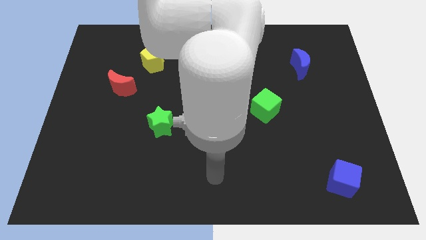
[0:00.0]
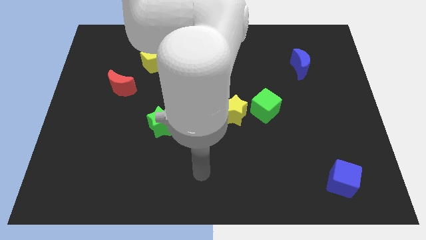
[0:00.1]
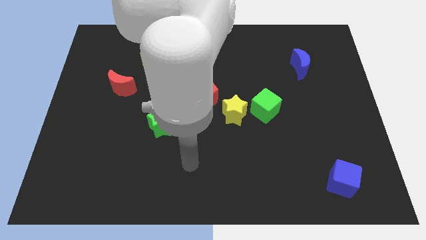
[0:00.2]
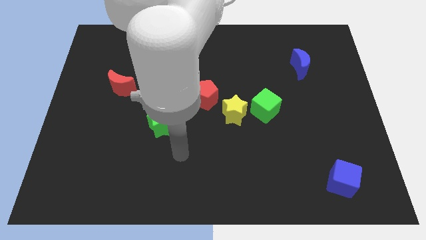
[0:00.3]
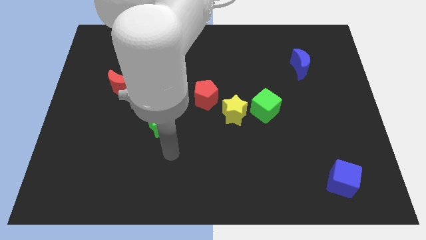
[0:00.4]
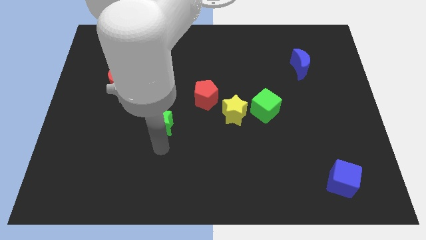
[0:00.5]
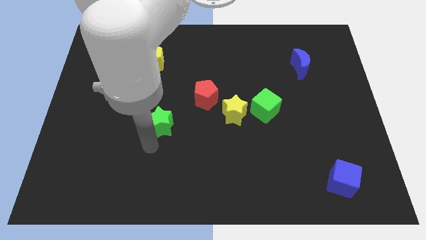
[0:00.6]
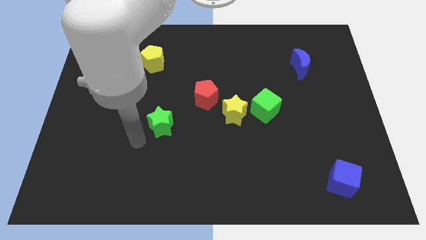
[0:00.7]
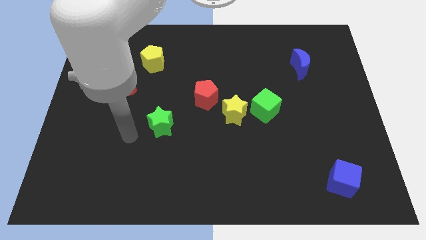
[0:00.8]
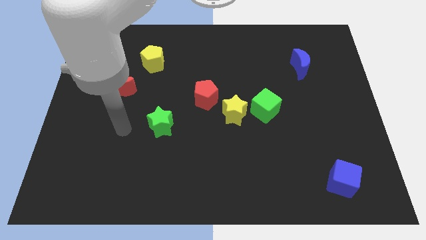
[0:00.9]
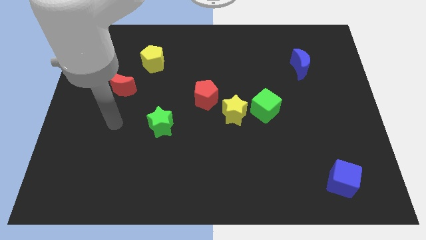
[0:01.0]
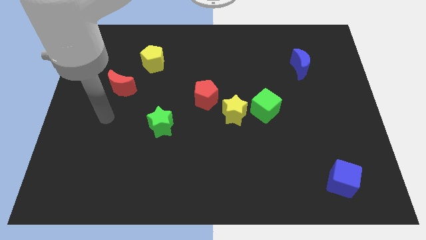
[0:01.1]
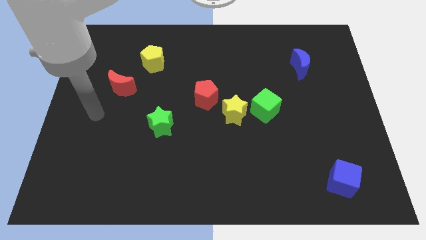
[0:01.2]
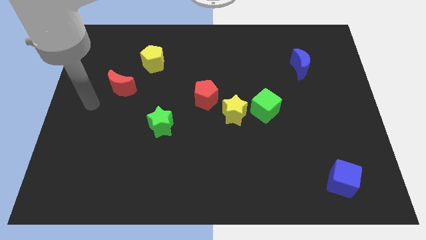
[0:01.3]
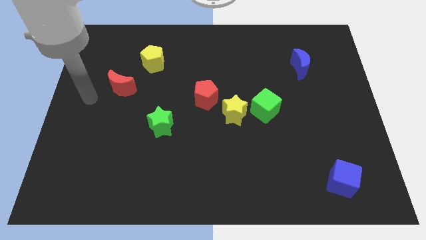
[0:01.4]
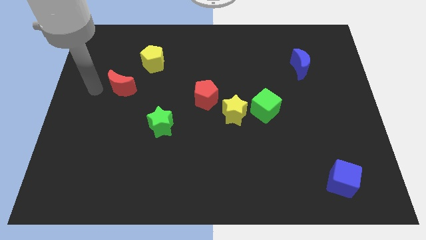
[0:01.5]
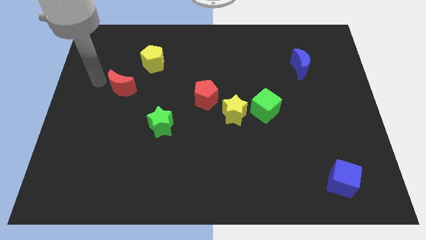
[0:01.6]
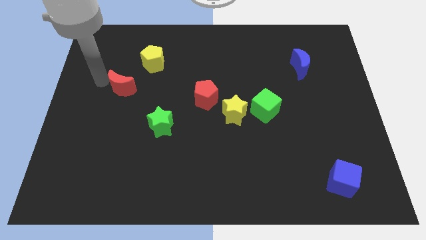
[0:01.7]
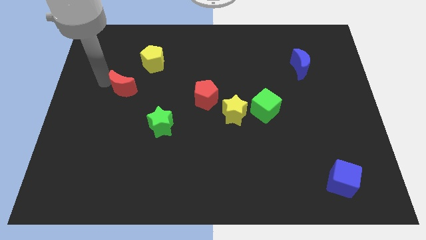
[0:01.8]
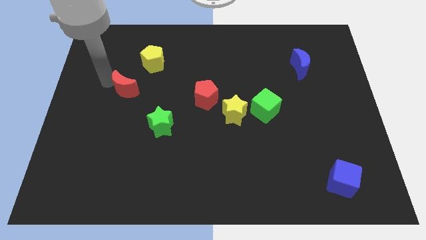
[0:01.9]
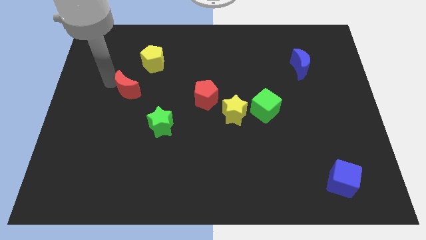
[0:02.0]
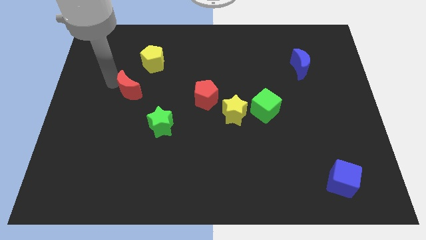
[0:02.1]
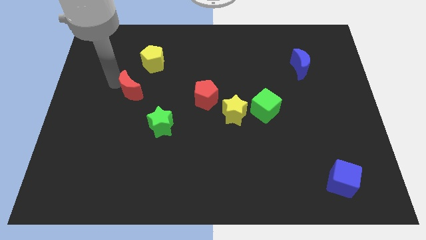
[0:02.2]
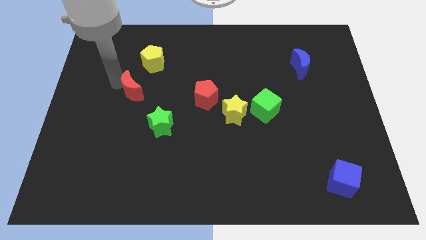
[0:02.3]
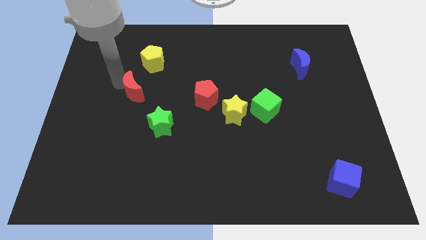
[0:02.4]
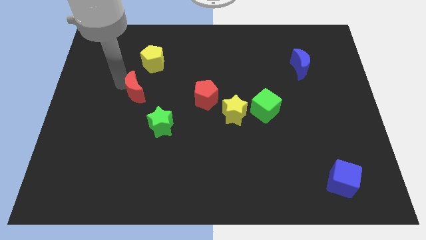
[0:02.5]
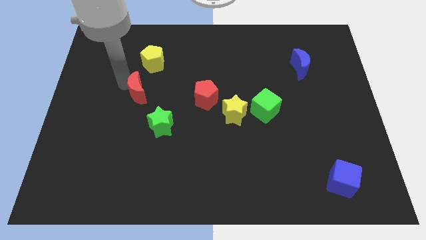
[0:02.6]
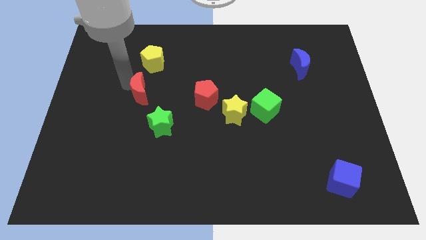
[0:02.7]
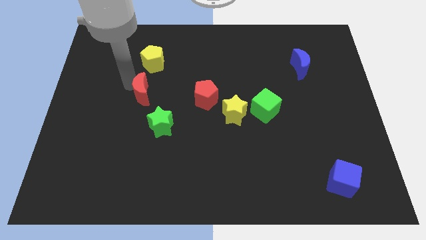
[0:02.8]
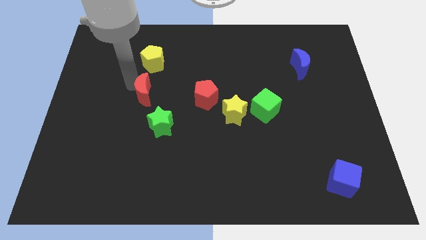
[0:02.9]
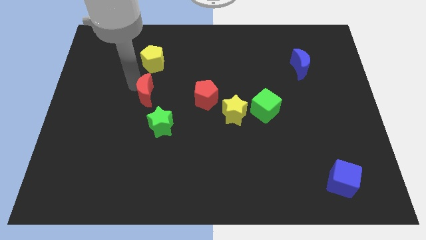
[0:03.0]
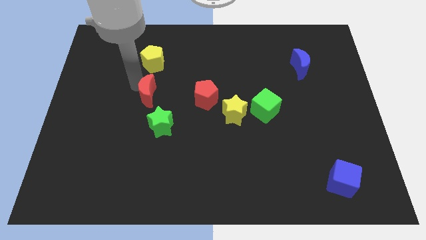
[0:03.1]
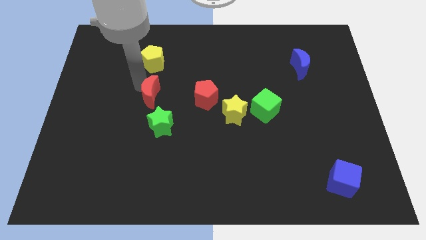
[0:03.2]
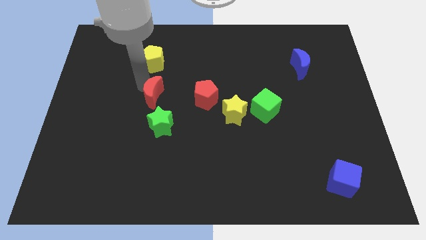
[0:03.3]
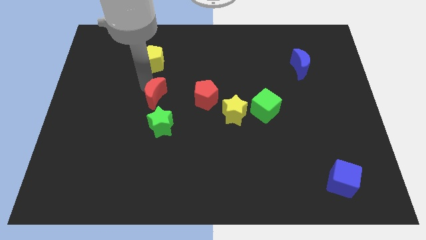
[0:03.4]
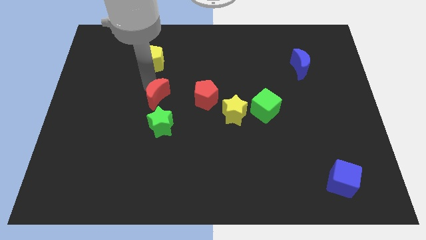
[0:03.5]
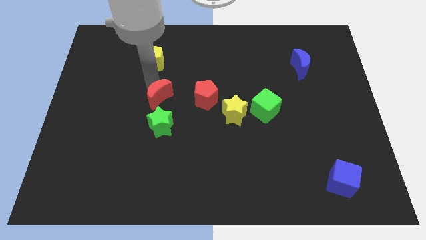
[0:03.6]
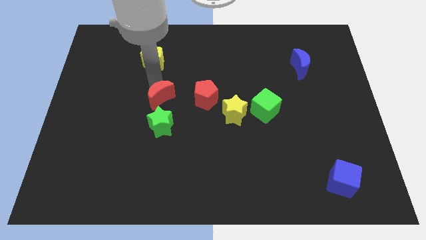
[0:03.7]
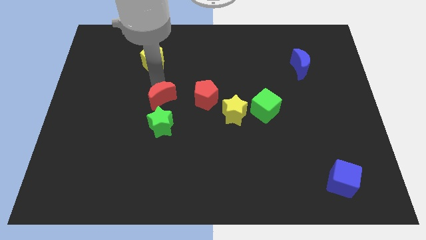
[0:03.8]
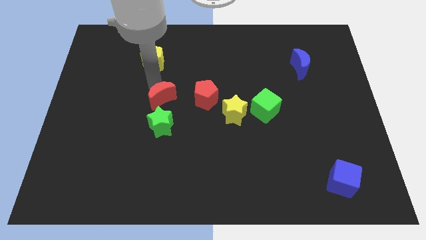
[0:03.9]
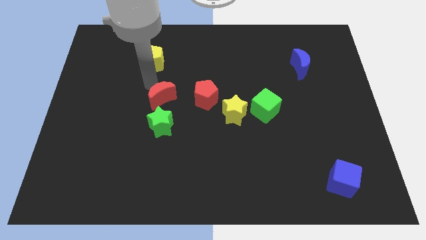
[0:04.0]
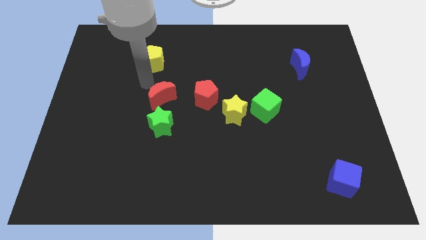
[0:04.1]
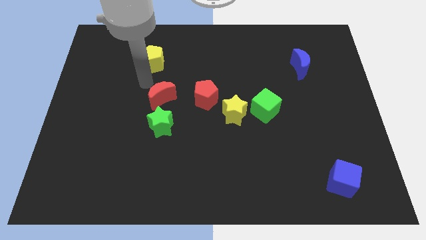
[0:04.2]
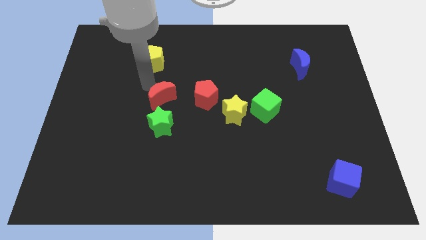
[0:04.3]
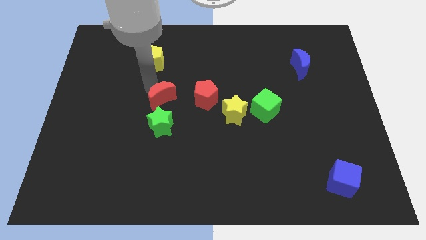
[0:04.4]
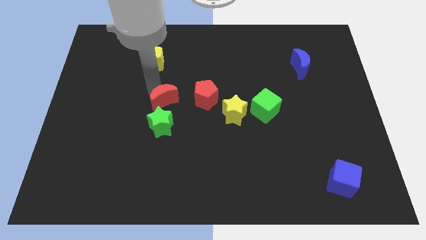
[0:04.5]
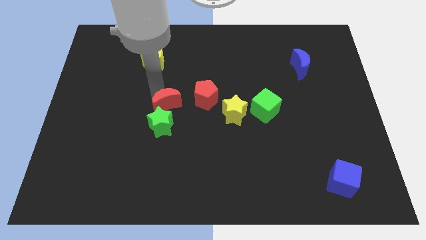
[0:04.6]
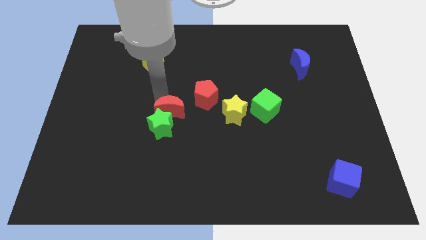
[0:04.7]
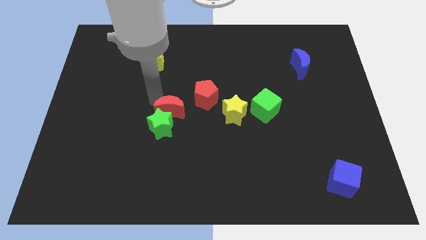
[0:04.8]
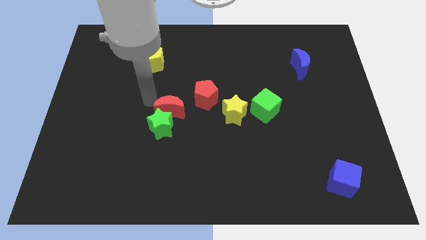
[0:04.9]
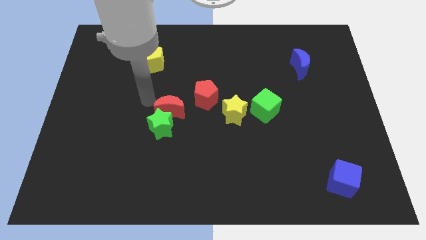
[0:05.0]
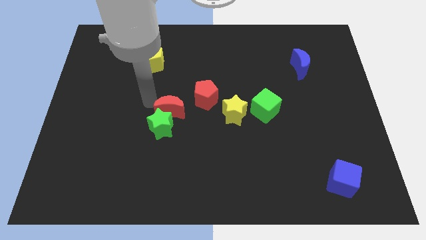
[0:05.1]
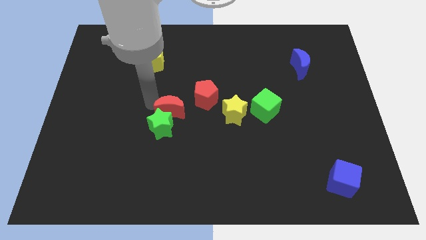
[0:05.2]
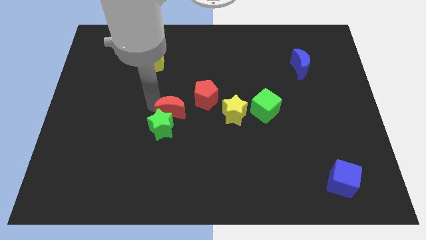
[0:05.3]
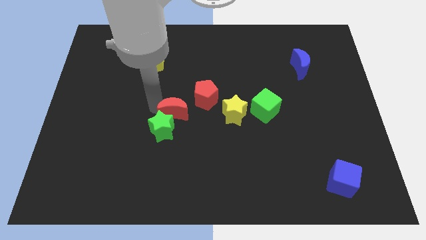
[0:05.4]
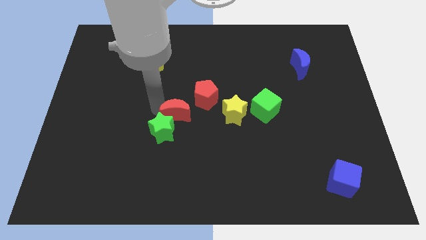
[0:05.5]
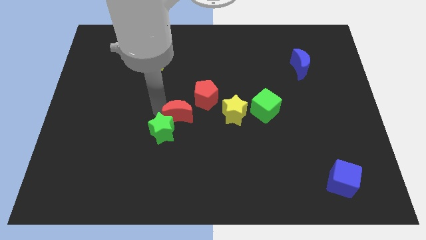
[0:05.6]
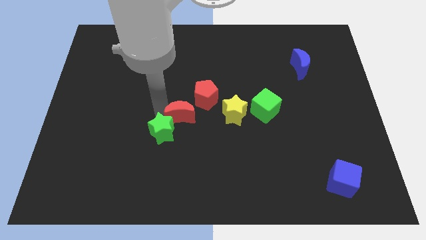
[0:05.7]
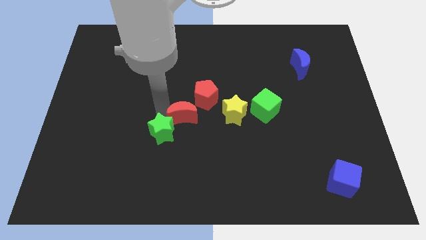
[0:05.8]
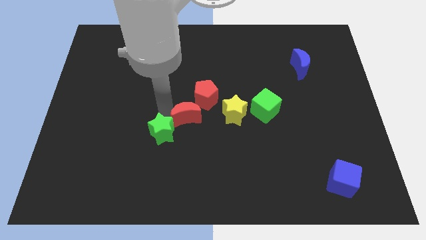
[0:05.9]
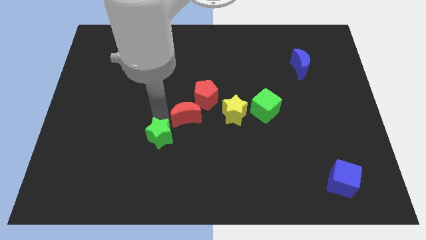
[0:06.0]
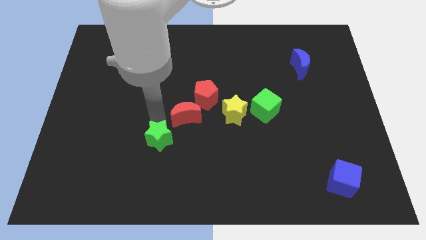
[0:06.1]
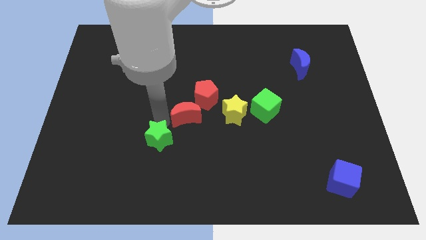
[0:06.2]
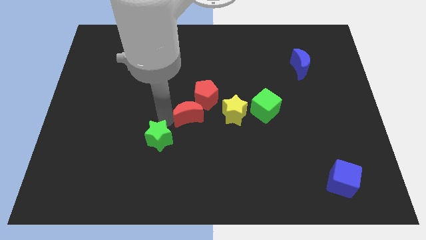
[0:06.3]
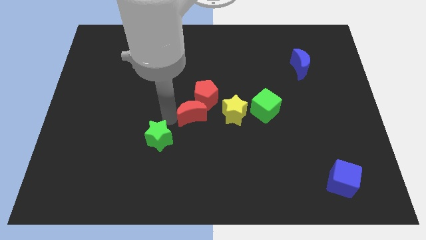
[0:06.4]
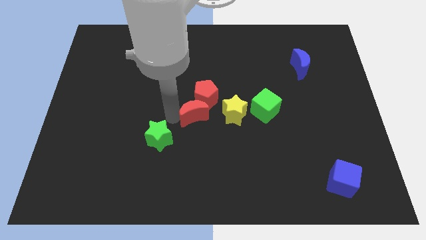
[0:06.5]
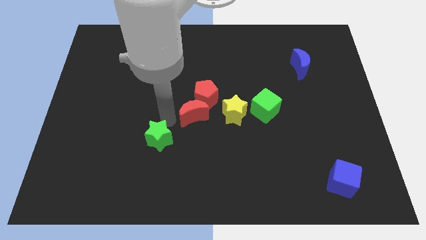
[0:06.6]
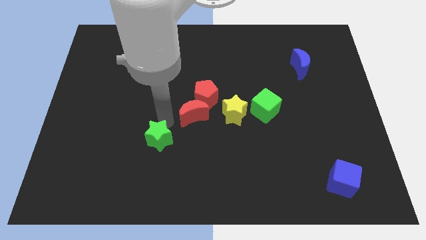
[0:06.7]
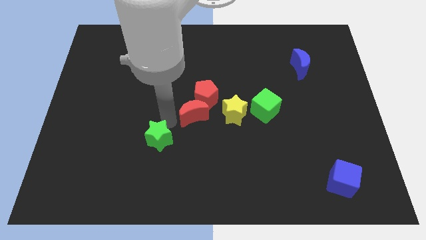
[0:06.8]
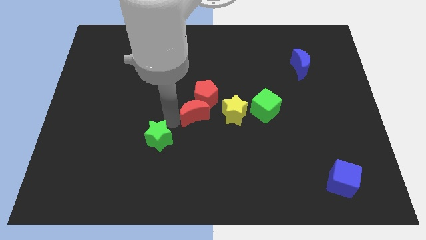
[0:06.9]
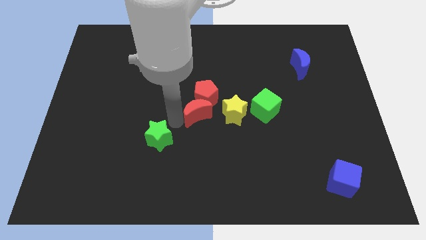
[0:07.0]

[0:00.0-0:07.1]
move the red moon left of the green cube

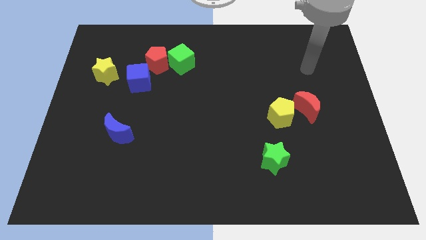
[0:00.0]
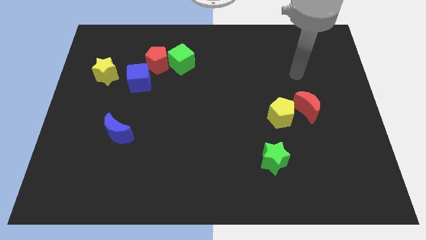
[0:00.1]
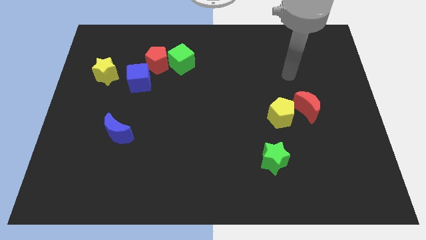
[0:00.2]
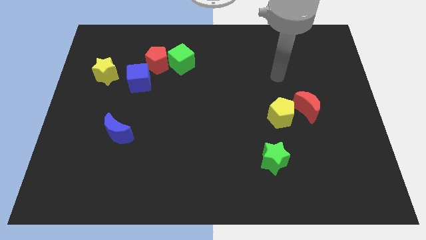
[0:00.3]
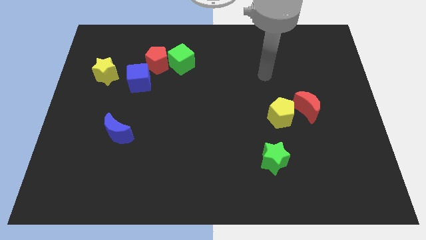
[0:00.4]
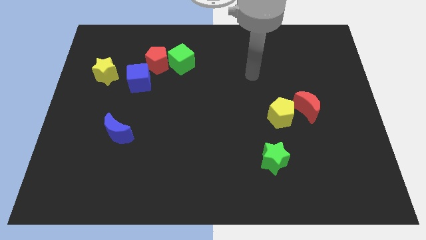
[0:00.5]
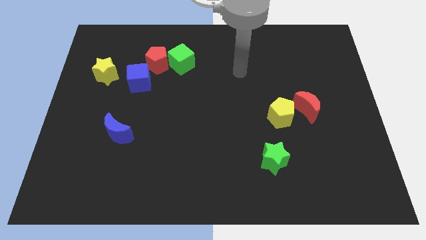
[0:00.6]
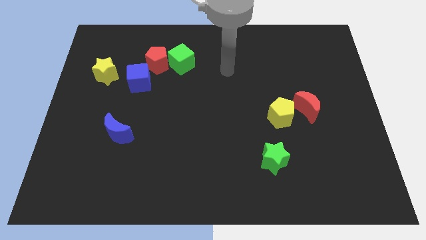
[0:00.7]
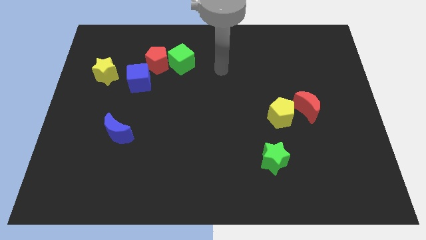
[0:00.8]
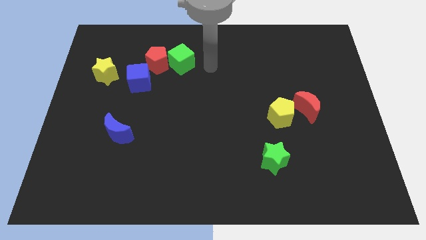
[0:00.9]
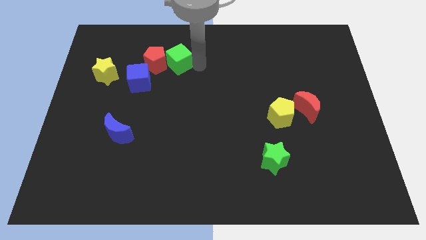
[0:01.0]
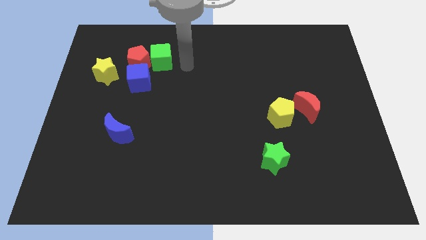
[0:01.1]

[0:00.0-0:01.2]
push the red pentagon to the top right of the yellow star
